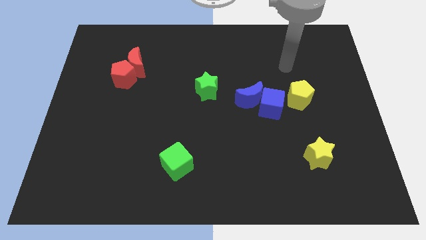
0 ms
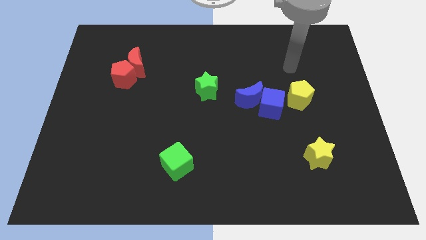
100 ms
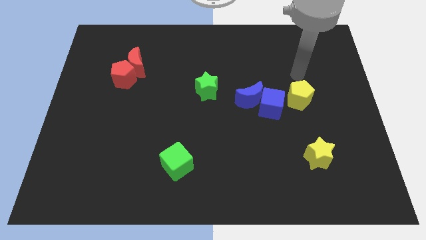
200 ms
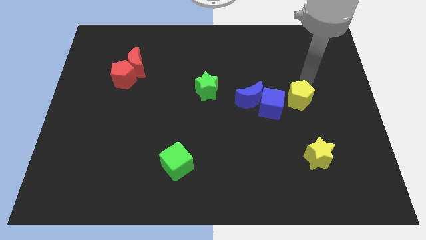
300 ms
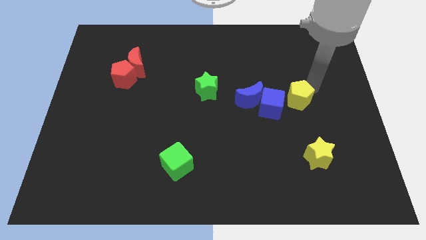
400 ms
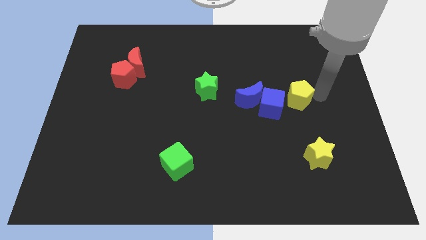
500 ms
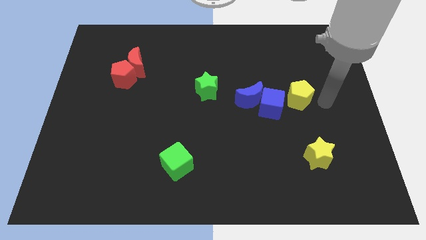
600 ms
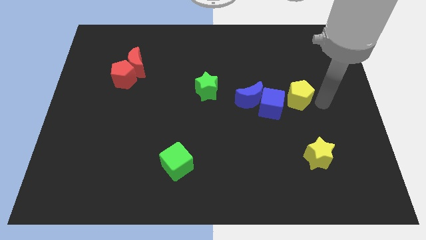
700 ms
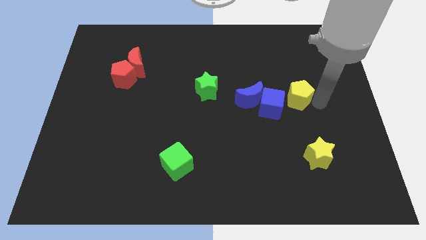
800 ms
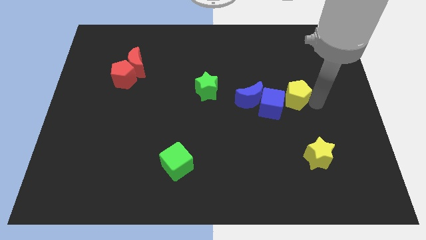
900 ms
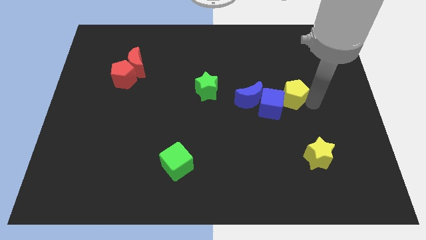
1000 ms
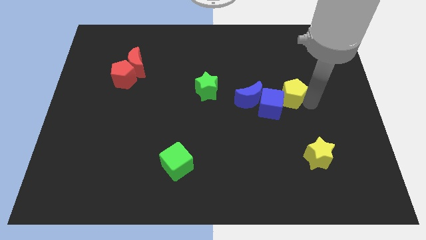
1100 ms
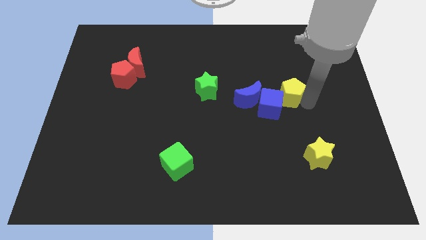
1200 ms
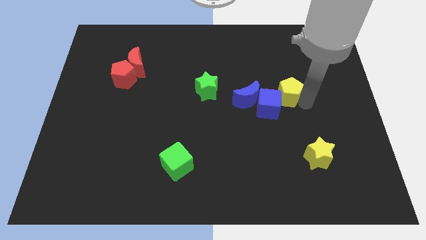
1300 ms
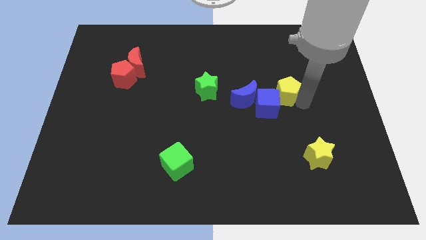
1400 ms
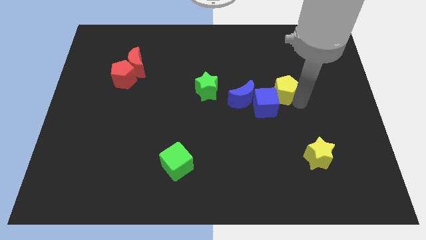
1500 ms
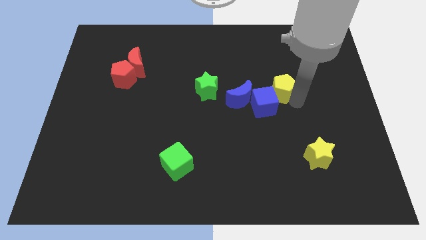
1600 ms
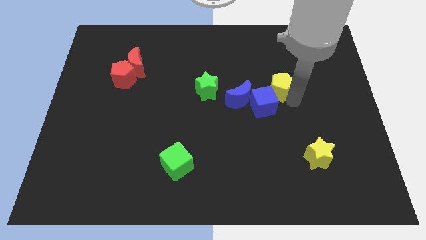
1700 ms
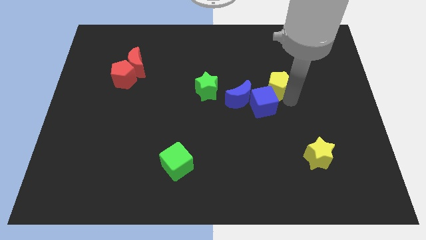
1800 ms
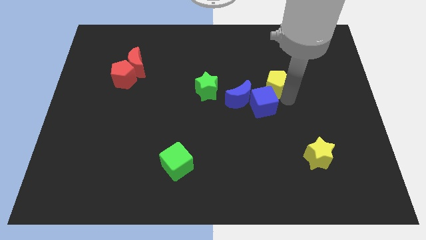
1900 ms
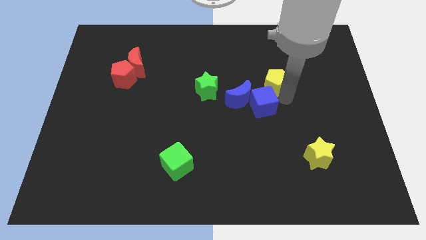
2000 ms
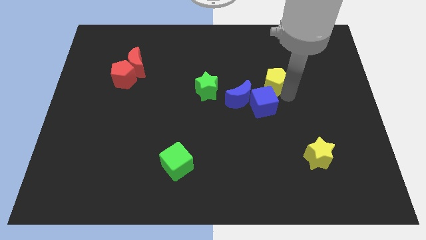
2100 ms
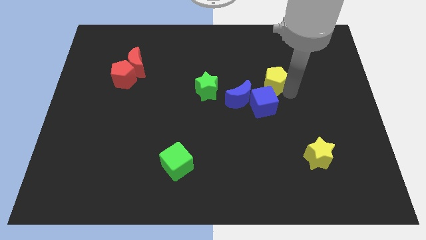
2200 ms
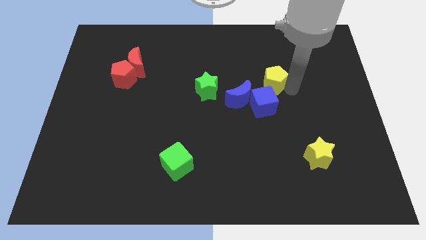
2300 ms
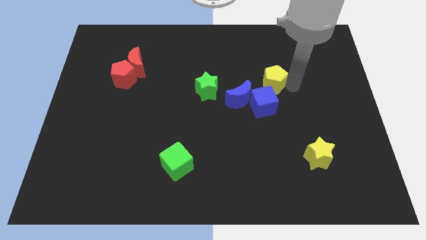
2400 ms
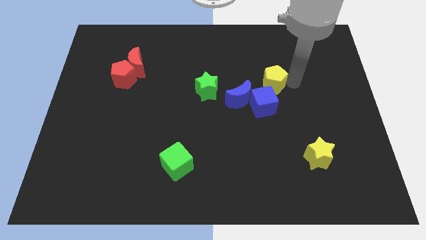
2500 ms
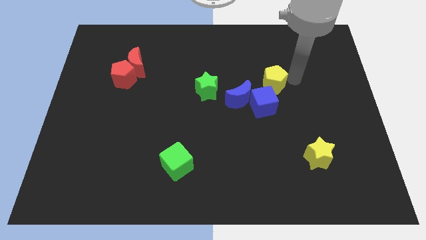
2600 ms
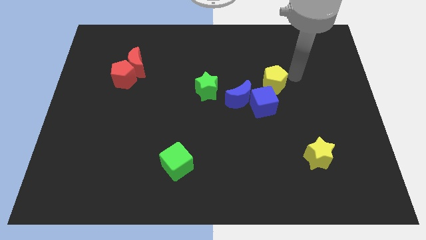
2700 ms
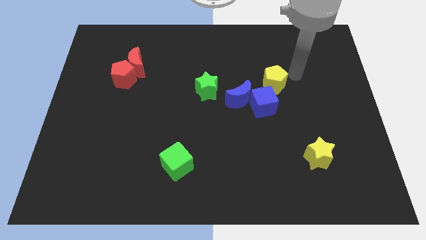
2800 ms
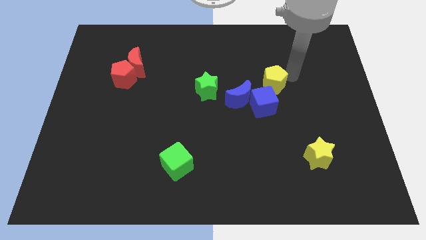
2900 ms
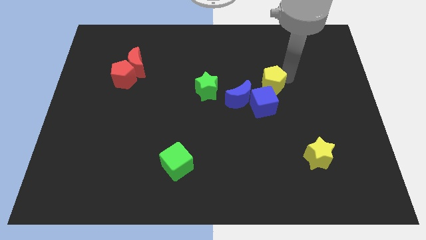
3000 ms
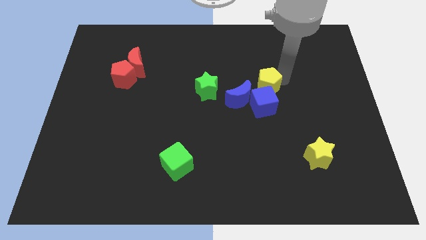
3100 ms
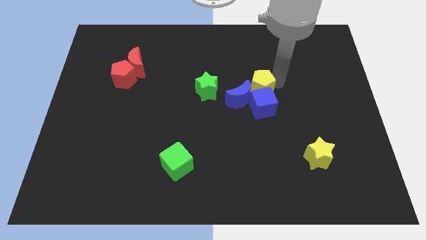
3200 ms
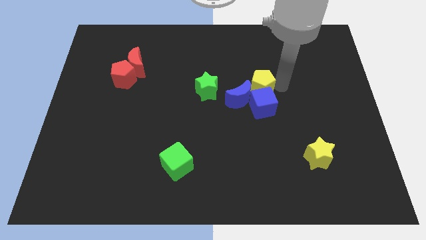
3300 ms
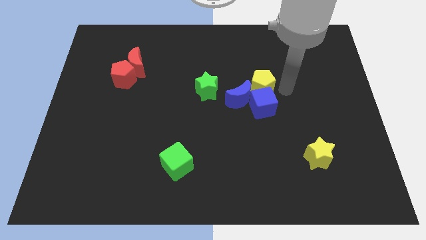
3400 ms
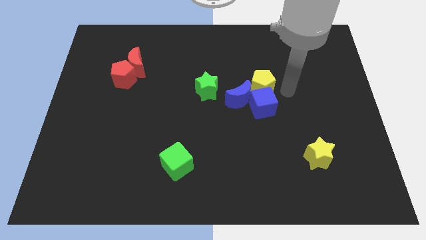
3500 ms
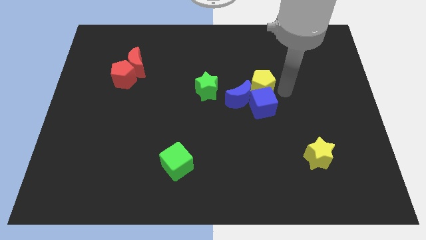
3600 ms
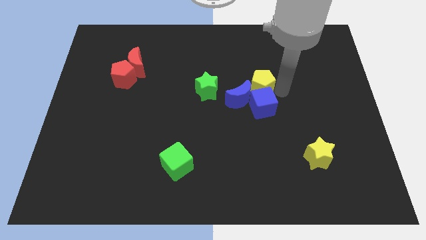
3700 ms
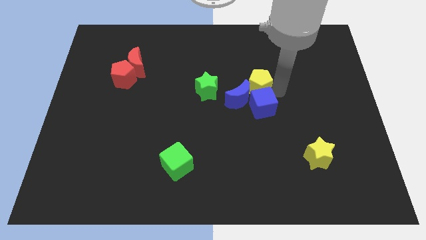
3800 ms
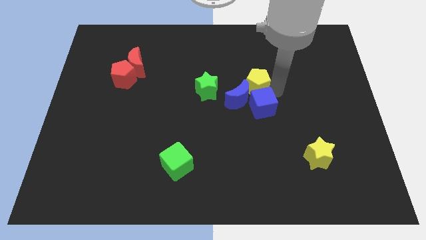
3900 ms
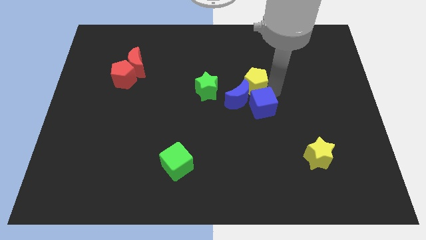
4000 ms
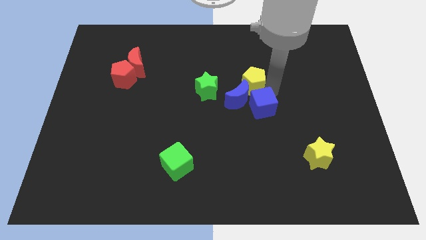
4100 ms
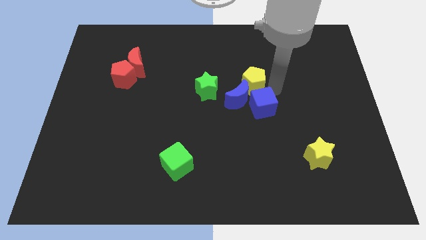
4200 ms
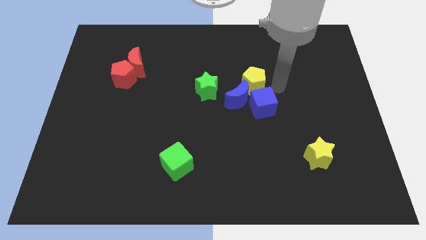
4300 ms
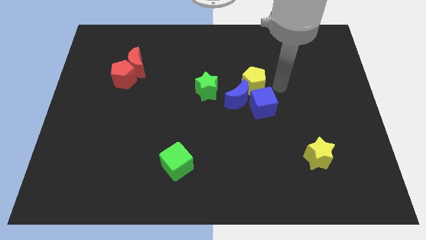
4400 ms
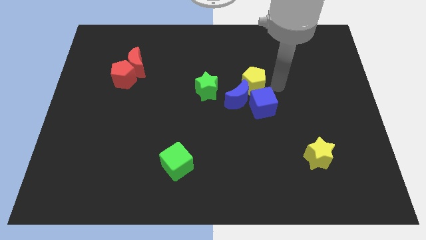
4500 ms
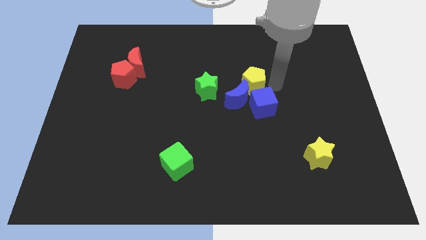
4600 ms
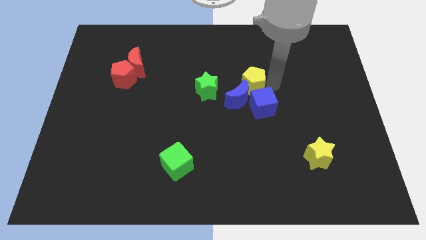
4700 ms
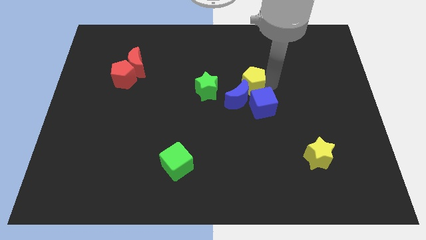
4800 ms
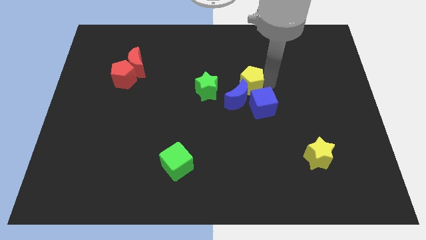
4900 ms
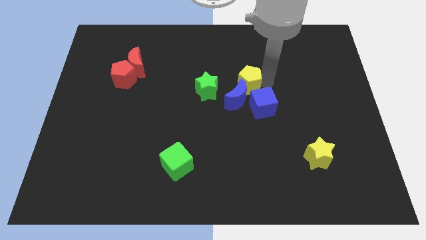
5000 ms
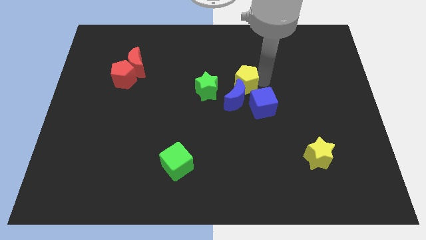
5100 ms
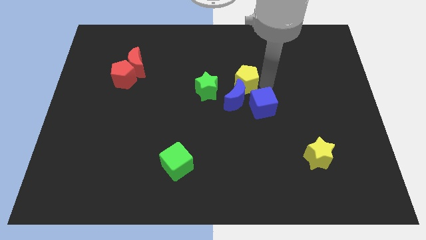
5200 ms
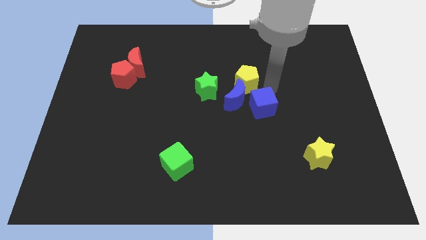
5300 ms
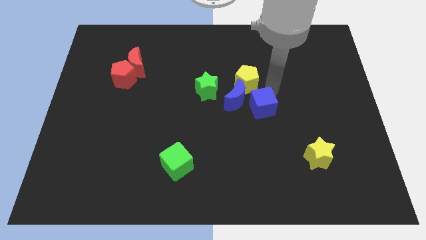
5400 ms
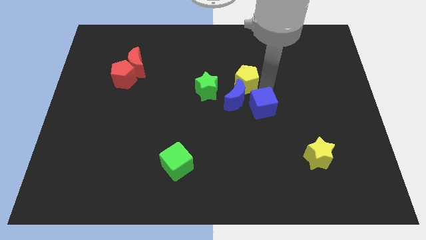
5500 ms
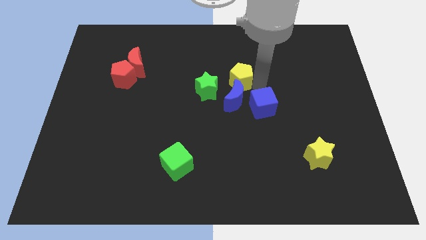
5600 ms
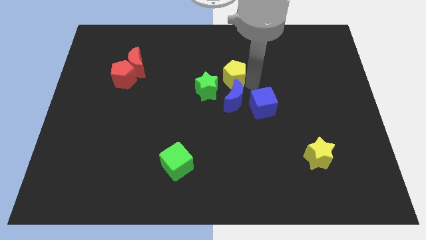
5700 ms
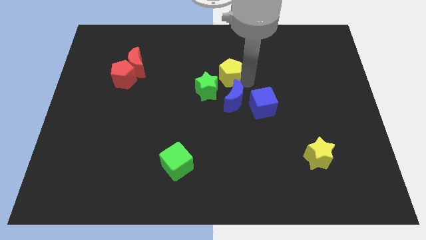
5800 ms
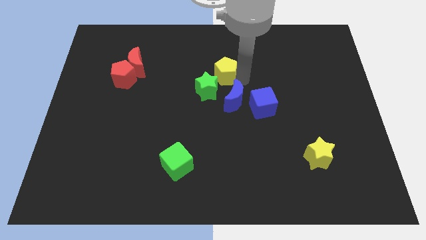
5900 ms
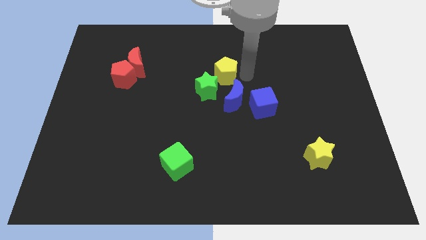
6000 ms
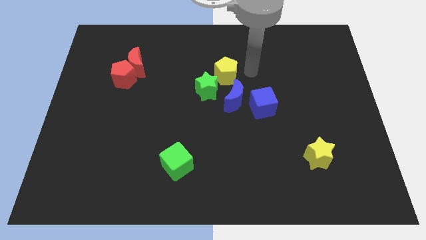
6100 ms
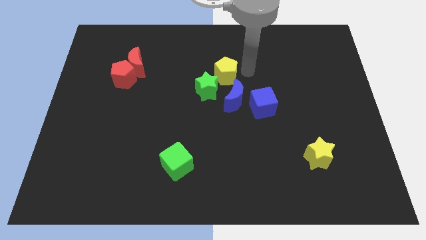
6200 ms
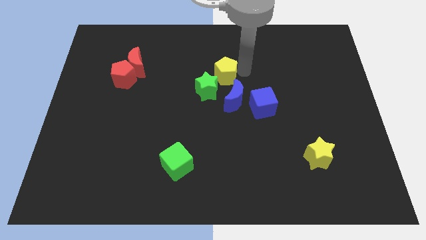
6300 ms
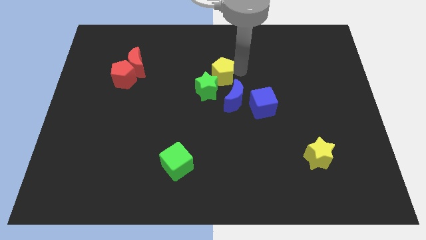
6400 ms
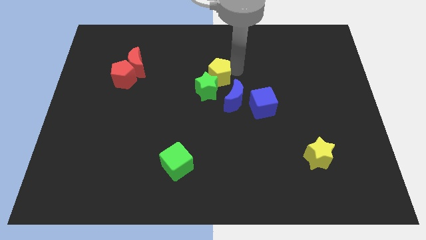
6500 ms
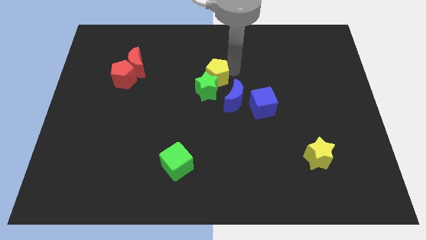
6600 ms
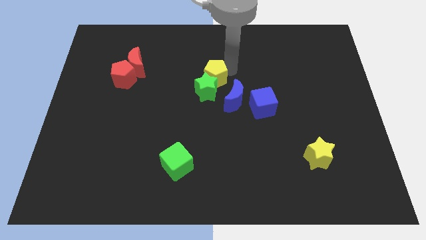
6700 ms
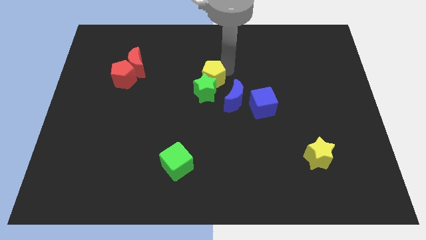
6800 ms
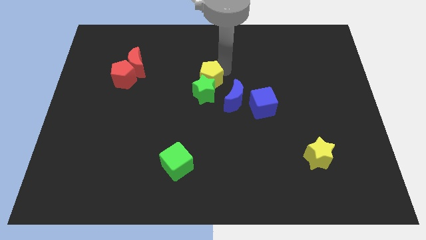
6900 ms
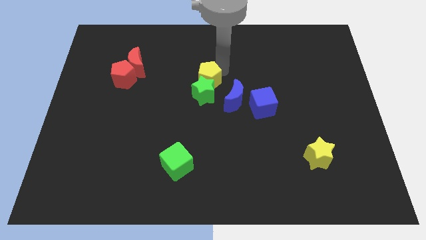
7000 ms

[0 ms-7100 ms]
push the yellow pentagon left

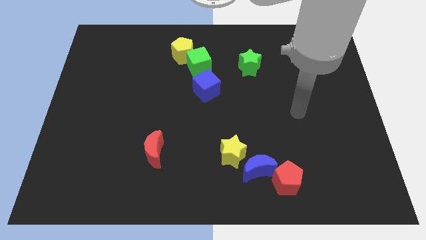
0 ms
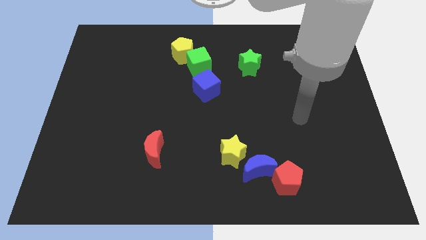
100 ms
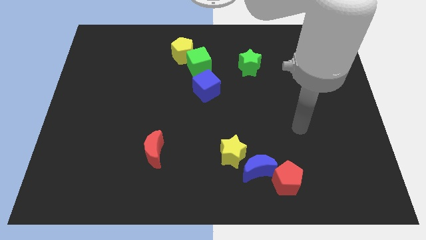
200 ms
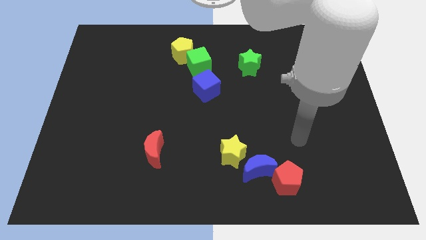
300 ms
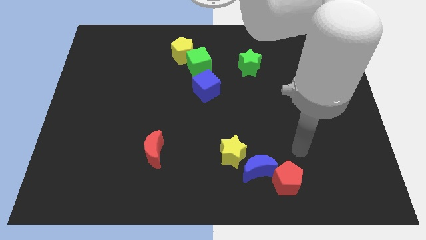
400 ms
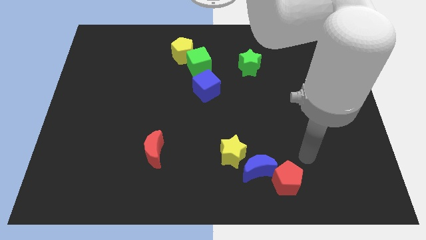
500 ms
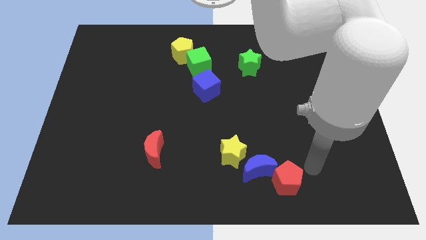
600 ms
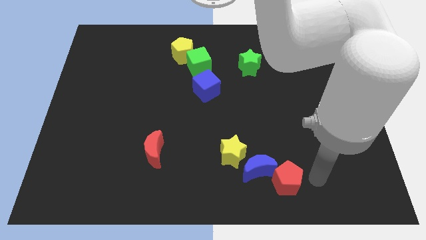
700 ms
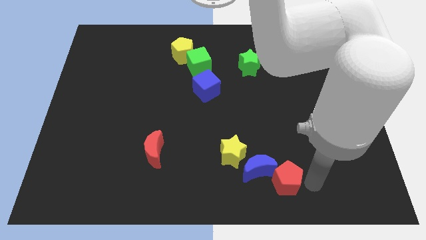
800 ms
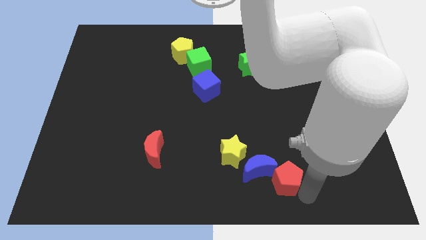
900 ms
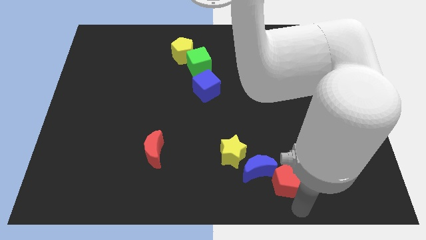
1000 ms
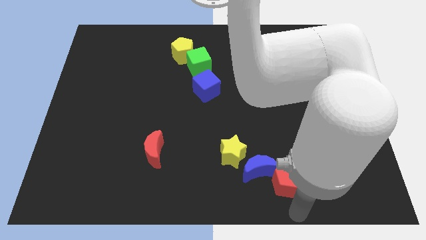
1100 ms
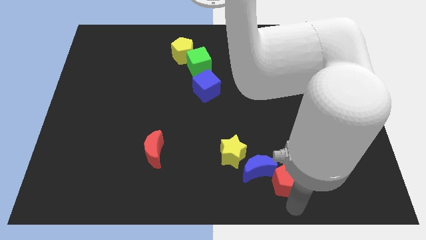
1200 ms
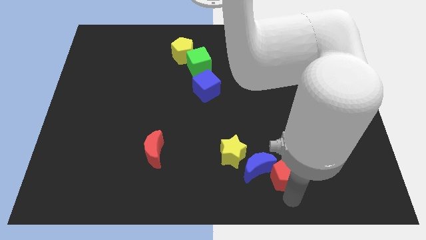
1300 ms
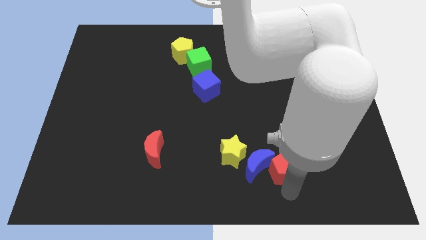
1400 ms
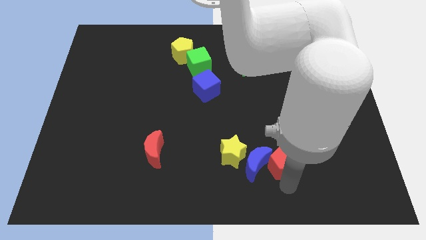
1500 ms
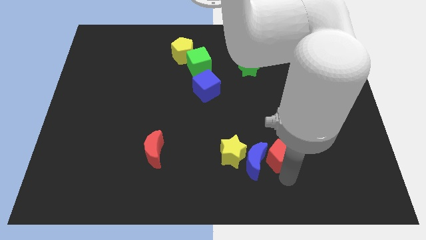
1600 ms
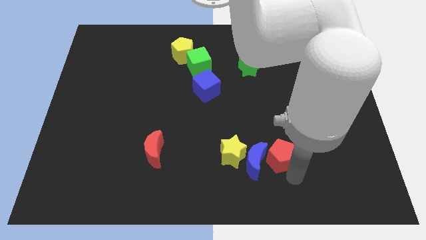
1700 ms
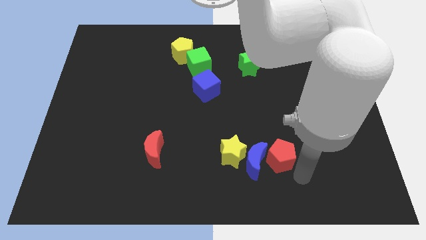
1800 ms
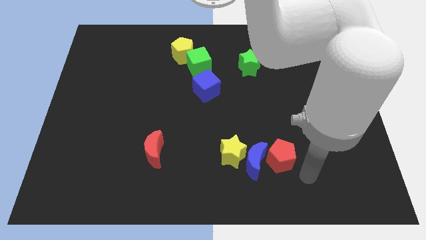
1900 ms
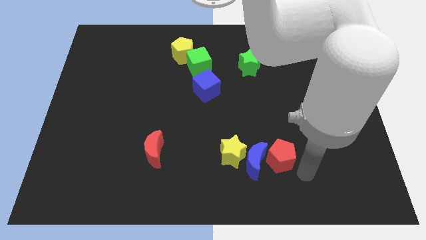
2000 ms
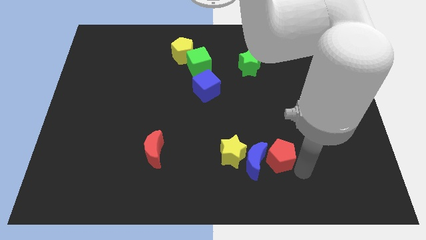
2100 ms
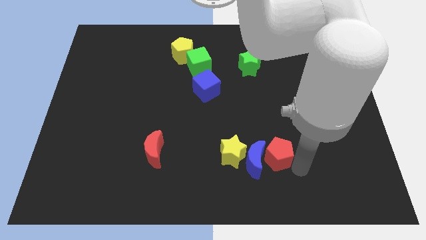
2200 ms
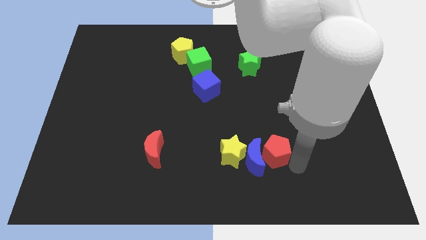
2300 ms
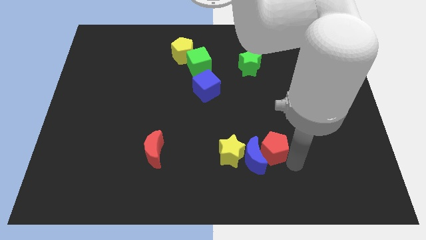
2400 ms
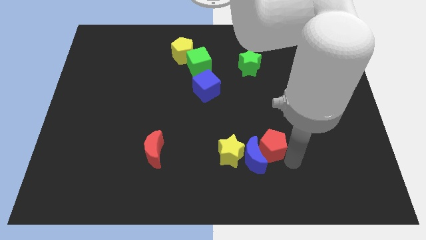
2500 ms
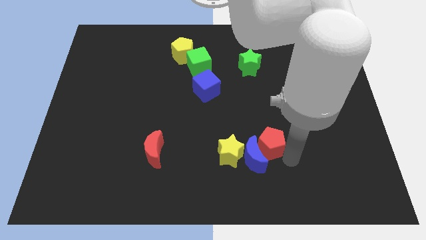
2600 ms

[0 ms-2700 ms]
slightly push the red pentagon up and then left
